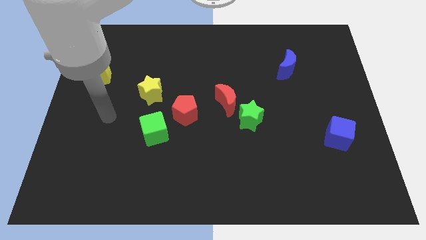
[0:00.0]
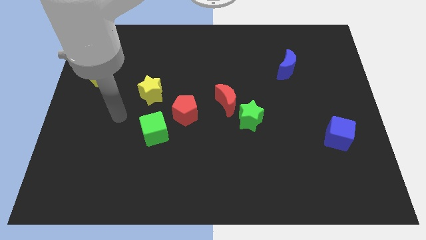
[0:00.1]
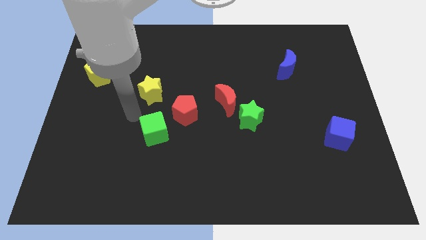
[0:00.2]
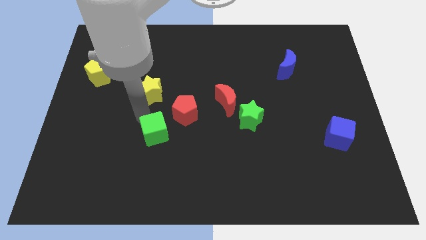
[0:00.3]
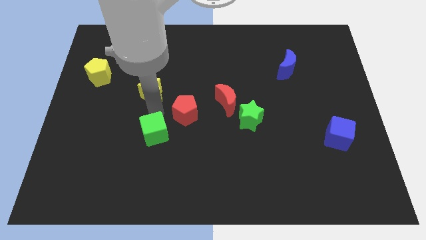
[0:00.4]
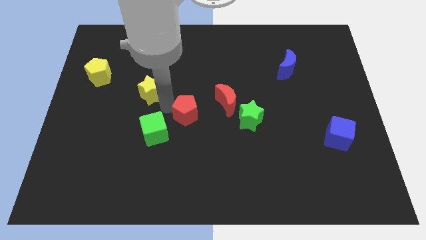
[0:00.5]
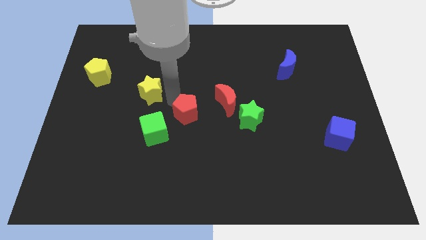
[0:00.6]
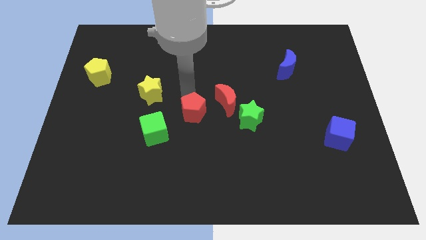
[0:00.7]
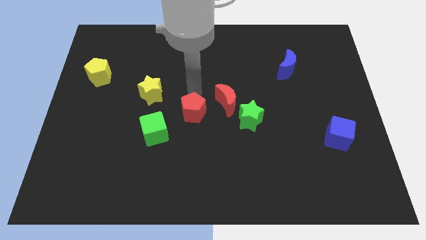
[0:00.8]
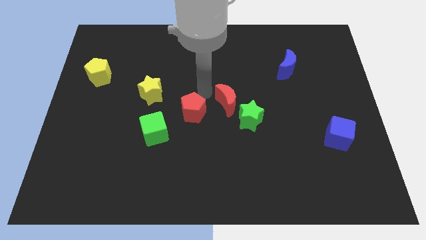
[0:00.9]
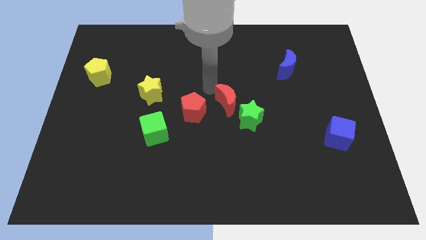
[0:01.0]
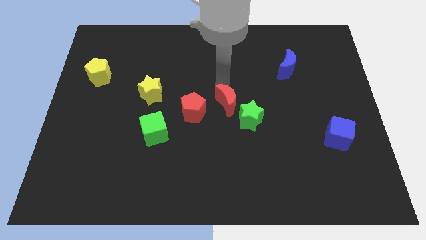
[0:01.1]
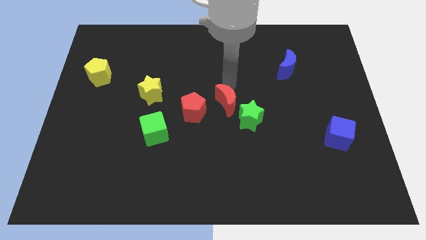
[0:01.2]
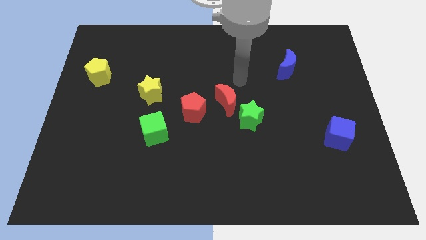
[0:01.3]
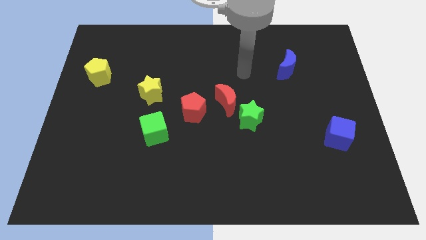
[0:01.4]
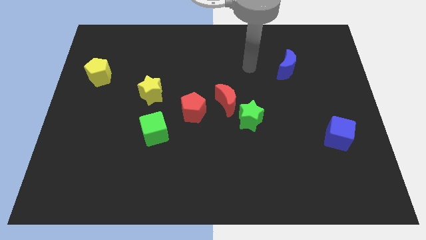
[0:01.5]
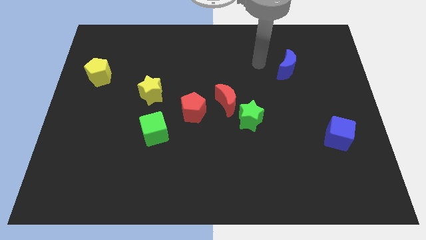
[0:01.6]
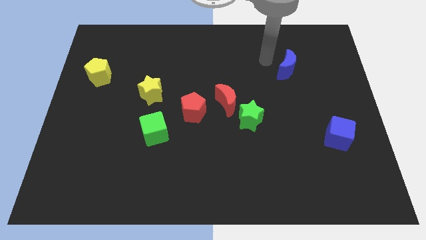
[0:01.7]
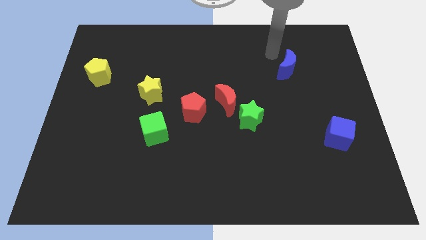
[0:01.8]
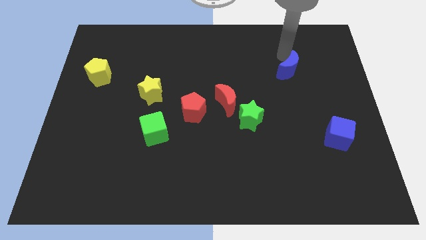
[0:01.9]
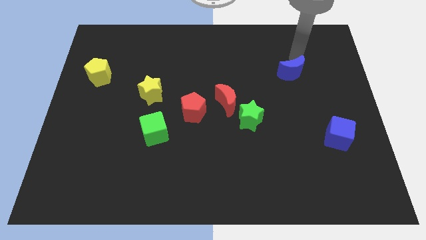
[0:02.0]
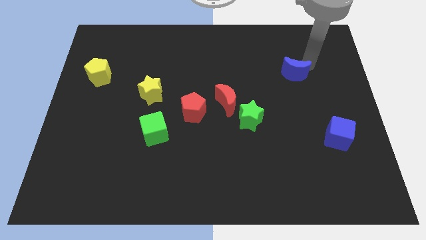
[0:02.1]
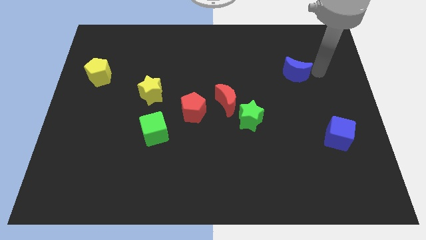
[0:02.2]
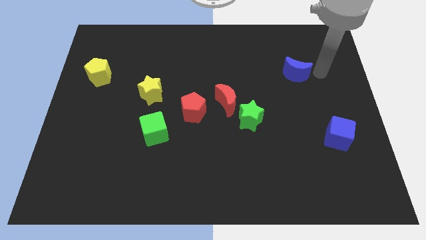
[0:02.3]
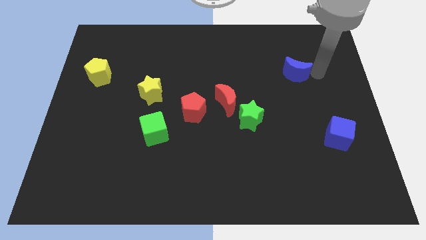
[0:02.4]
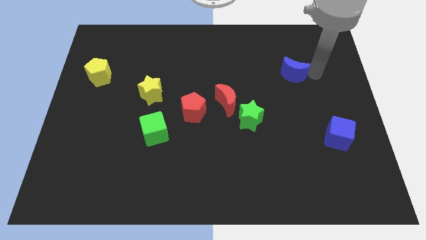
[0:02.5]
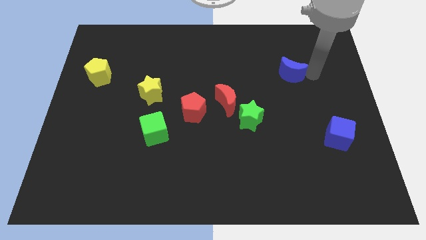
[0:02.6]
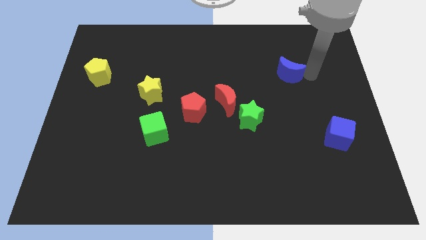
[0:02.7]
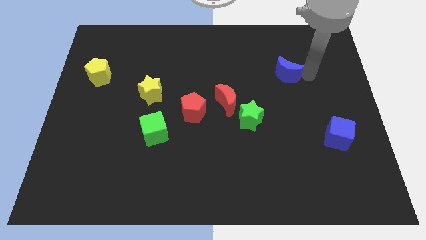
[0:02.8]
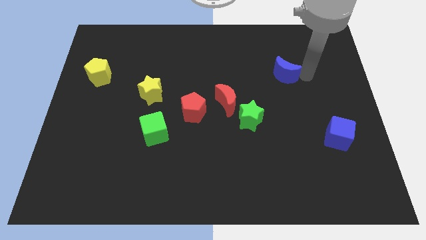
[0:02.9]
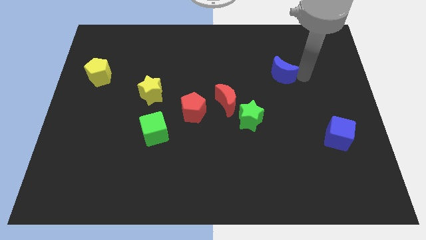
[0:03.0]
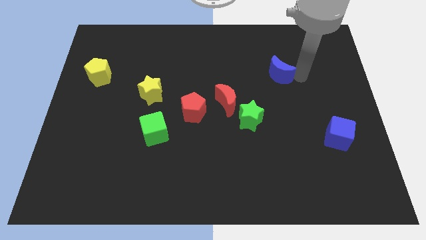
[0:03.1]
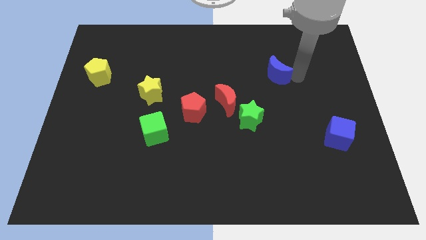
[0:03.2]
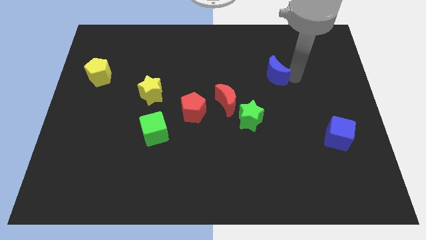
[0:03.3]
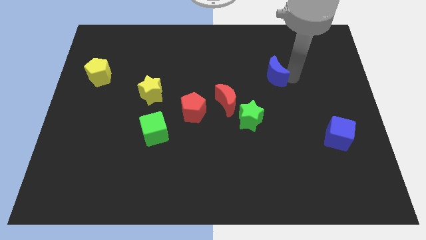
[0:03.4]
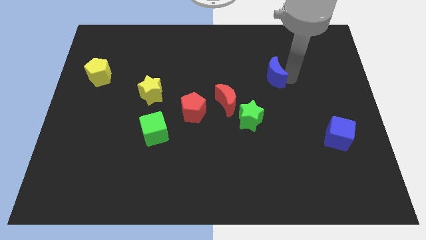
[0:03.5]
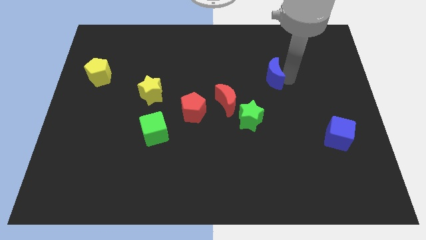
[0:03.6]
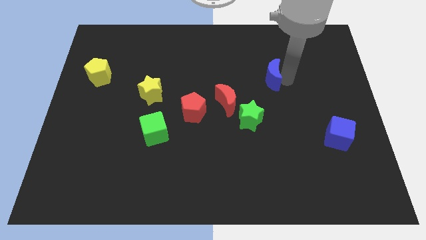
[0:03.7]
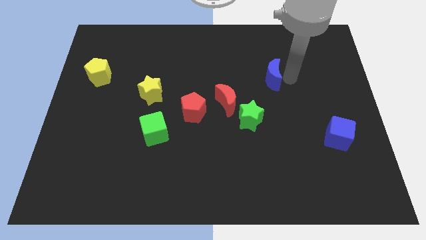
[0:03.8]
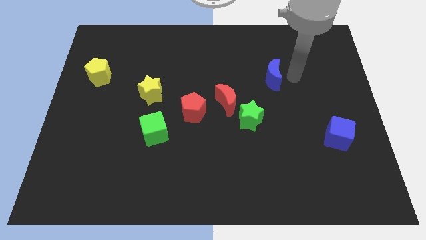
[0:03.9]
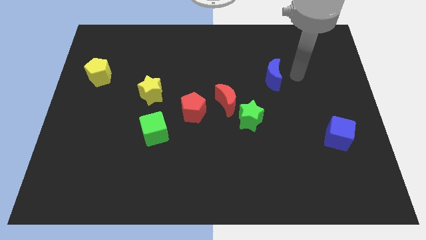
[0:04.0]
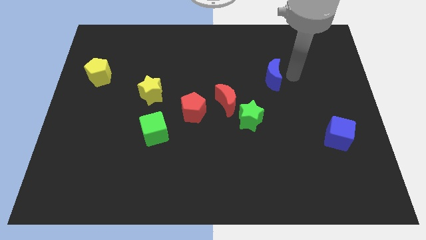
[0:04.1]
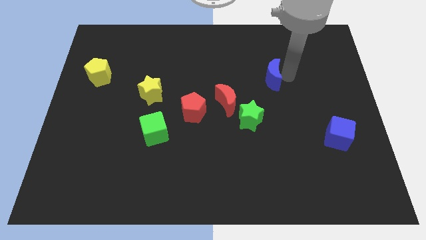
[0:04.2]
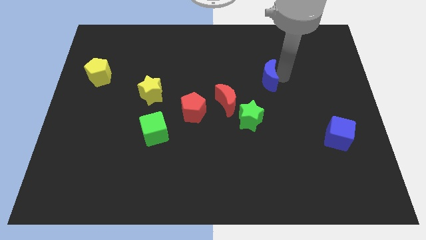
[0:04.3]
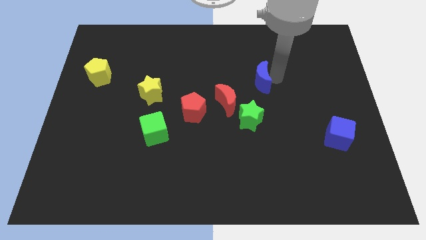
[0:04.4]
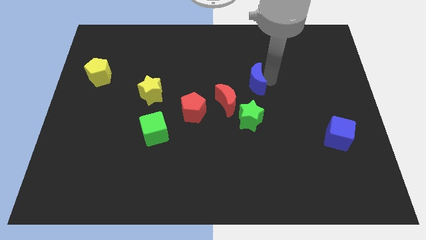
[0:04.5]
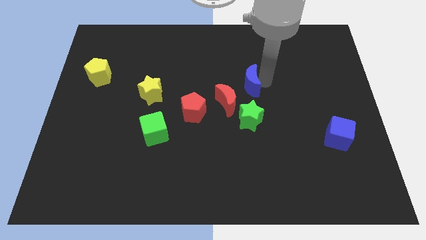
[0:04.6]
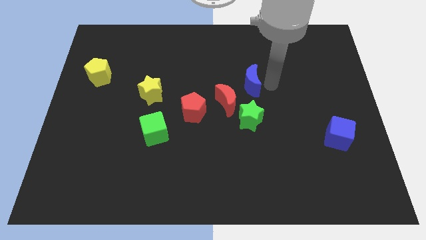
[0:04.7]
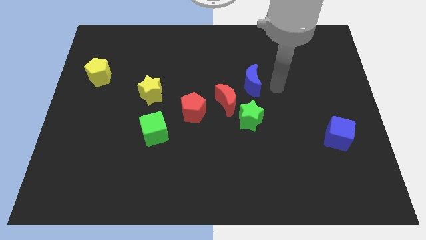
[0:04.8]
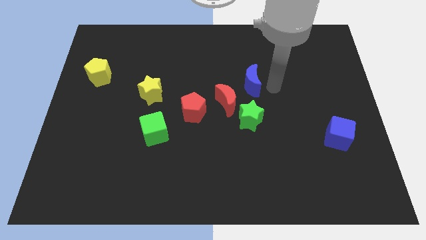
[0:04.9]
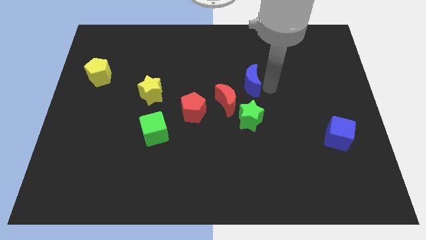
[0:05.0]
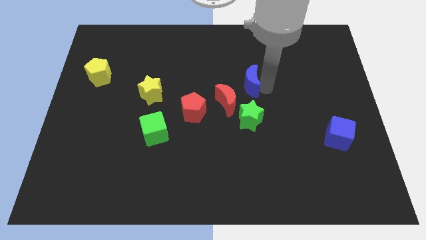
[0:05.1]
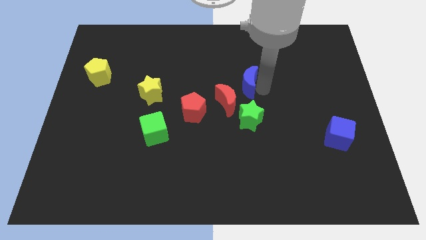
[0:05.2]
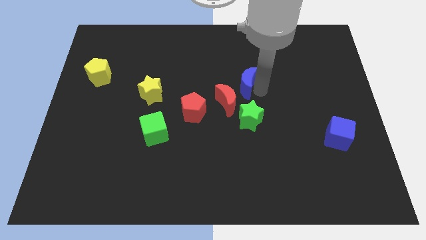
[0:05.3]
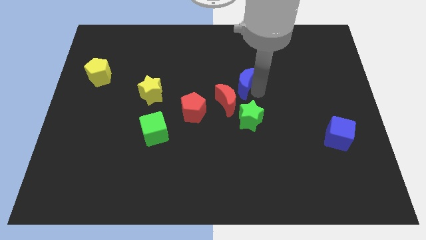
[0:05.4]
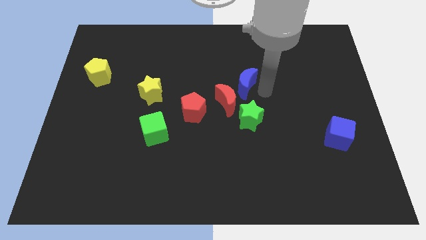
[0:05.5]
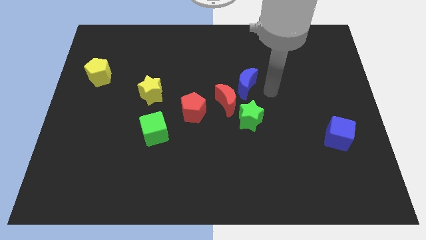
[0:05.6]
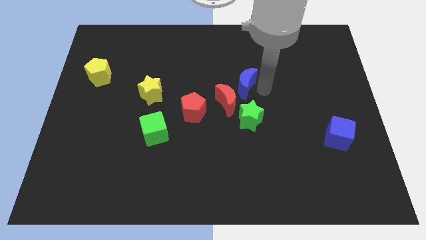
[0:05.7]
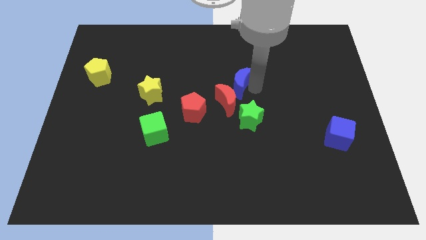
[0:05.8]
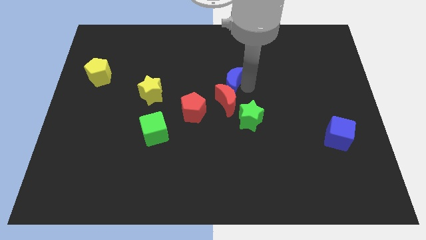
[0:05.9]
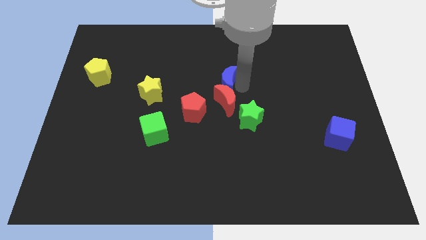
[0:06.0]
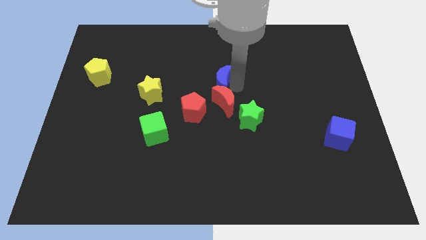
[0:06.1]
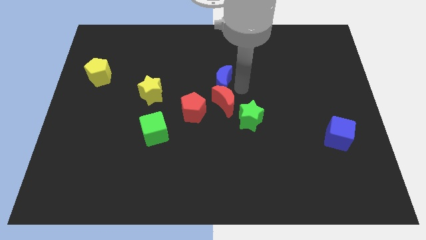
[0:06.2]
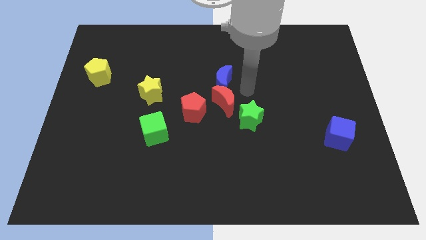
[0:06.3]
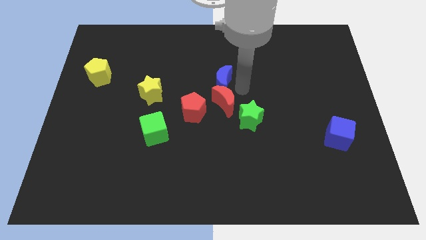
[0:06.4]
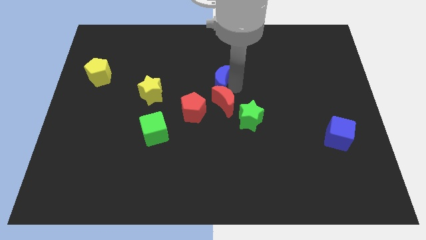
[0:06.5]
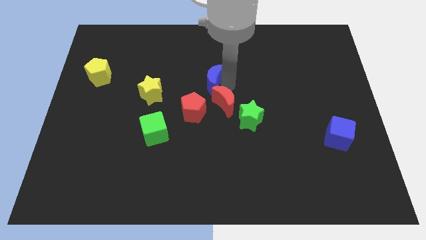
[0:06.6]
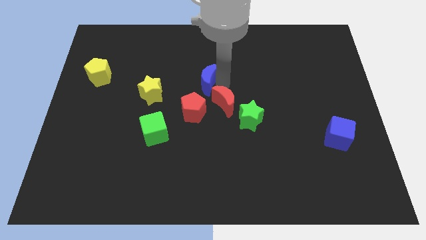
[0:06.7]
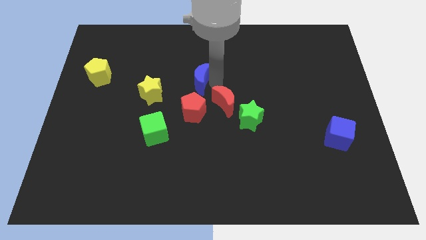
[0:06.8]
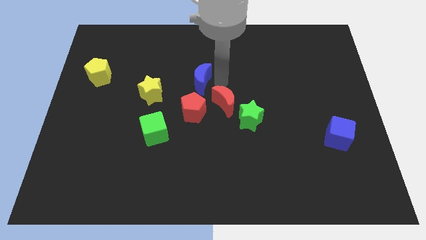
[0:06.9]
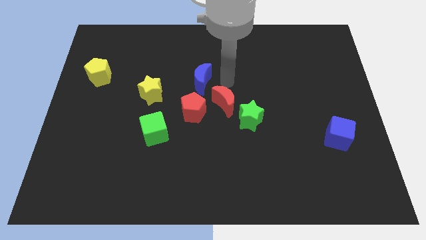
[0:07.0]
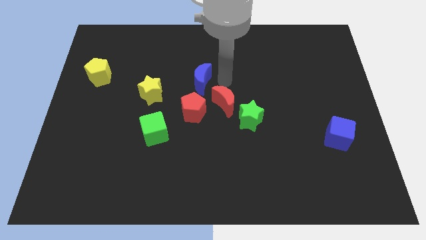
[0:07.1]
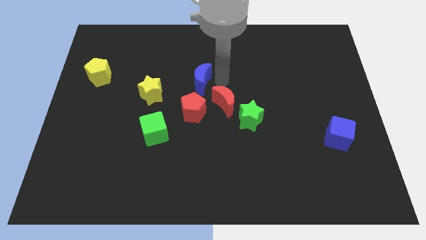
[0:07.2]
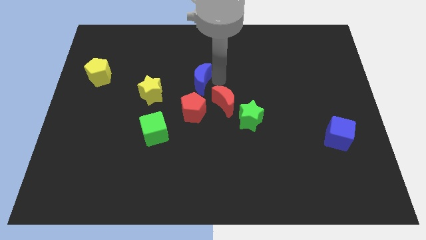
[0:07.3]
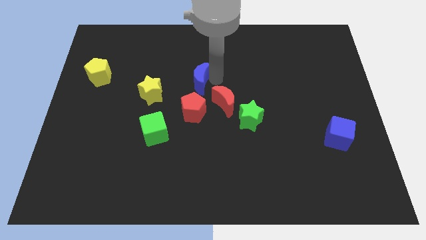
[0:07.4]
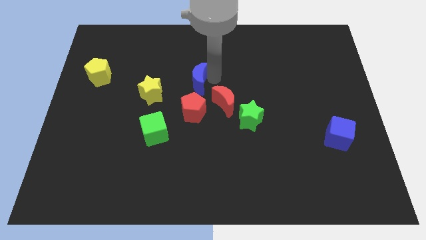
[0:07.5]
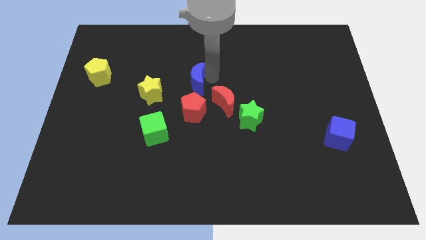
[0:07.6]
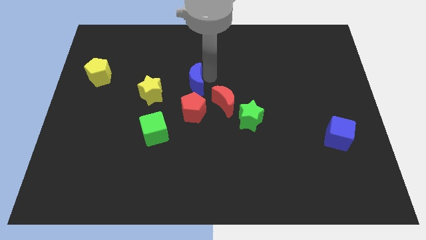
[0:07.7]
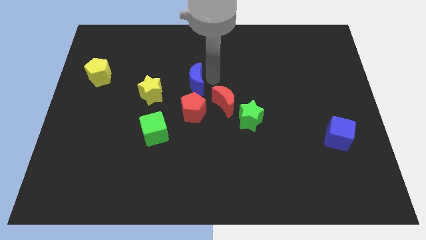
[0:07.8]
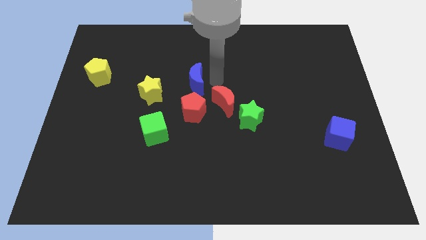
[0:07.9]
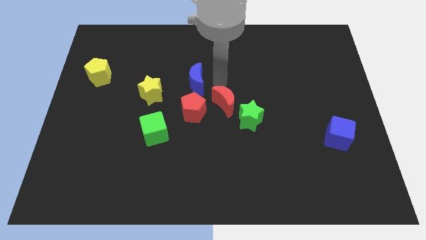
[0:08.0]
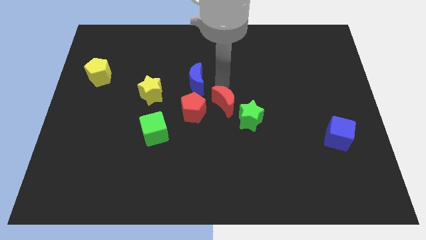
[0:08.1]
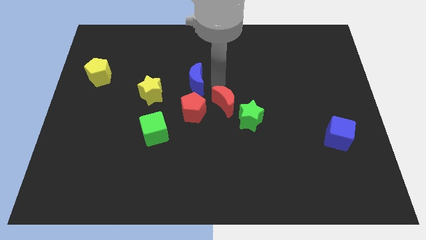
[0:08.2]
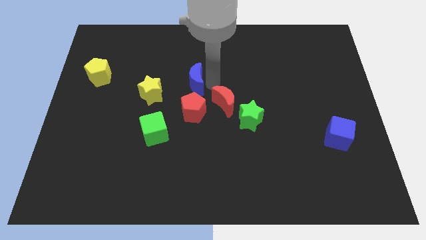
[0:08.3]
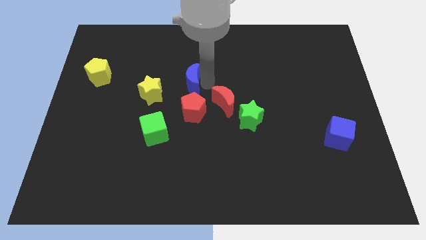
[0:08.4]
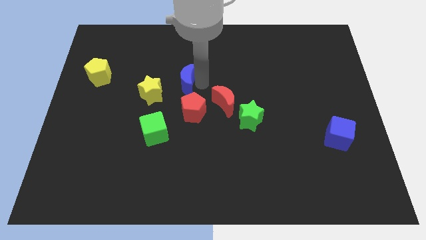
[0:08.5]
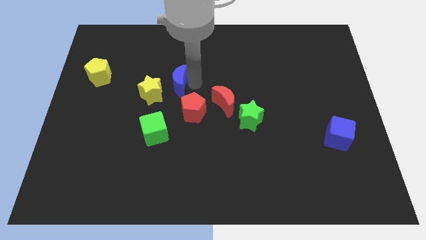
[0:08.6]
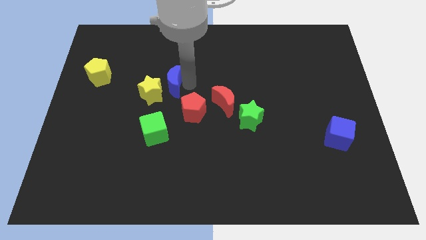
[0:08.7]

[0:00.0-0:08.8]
push the blue moon to the top side of the green cube
